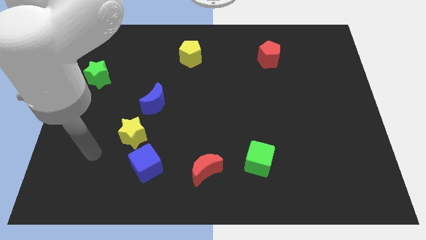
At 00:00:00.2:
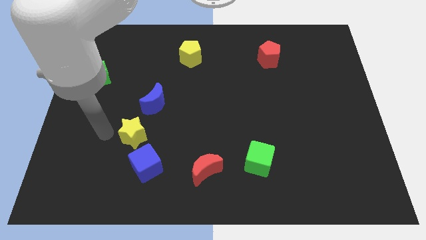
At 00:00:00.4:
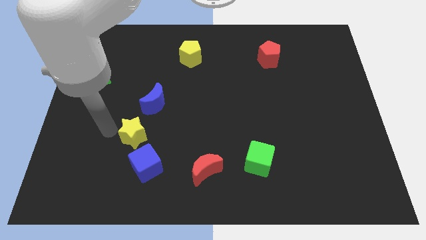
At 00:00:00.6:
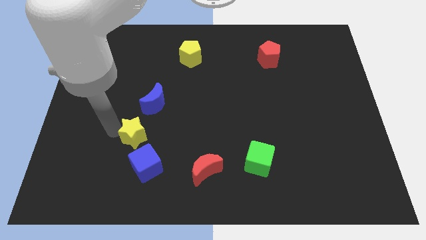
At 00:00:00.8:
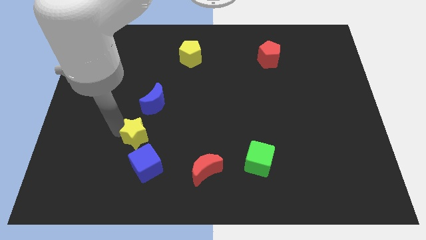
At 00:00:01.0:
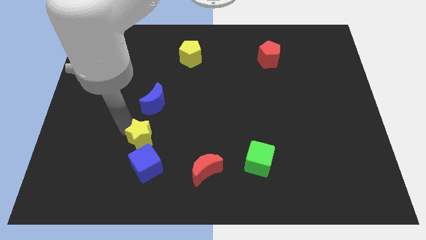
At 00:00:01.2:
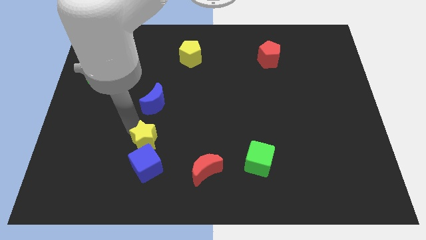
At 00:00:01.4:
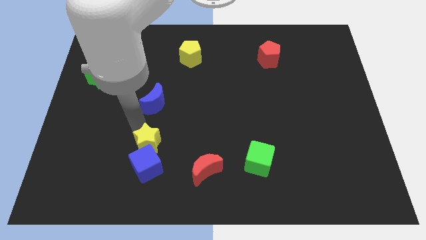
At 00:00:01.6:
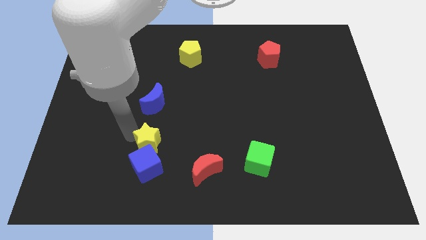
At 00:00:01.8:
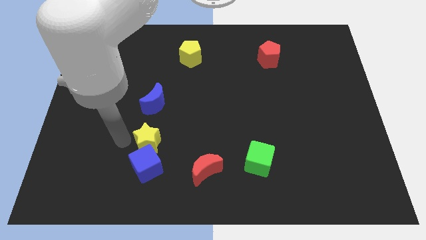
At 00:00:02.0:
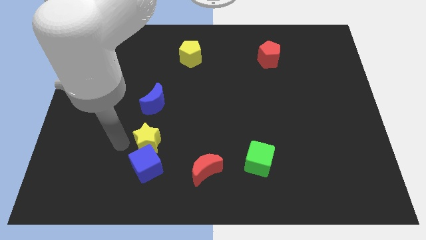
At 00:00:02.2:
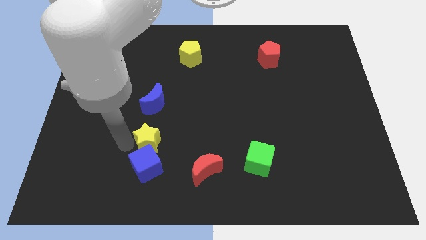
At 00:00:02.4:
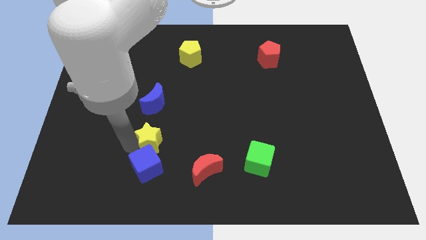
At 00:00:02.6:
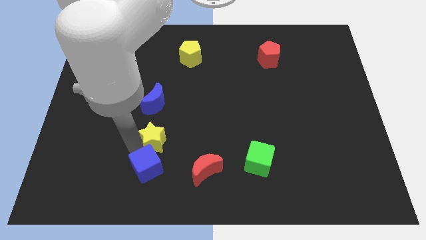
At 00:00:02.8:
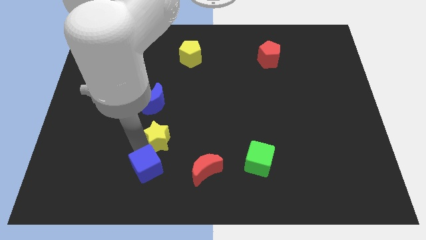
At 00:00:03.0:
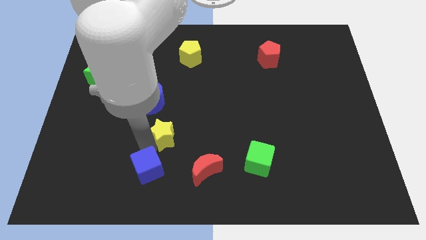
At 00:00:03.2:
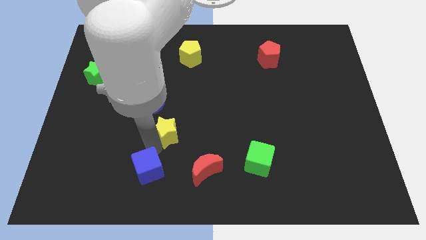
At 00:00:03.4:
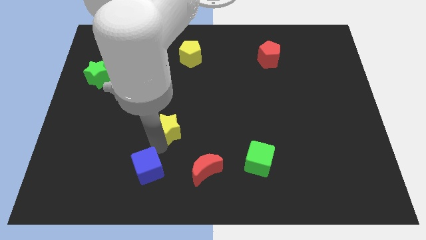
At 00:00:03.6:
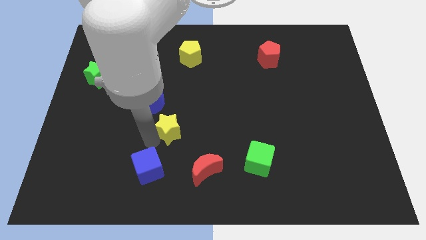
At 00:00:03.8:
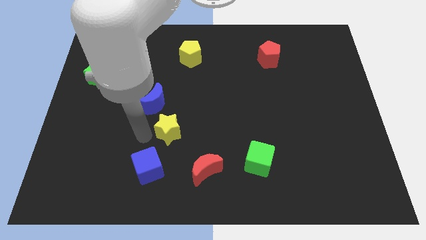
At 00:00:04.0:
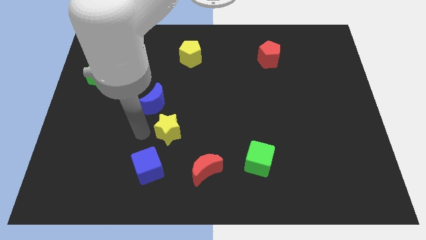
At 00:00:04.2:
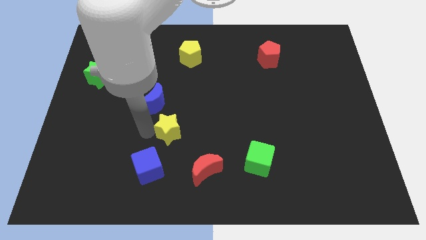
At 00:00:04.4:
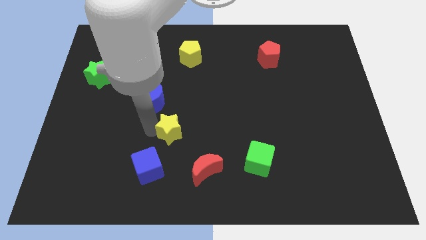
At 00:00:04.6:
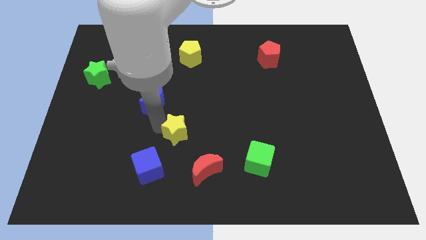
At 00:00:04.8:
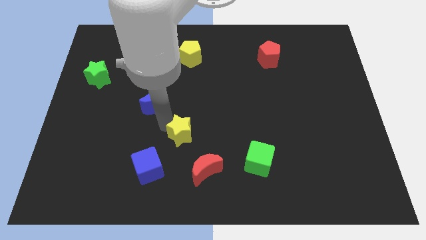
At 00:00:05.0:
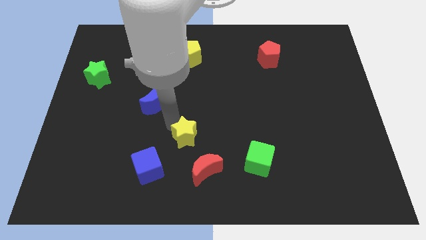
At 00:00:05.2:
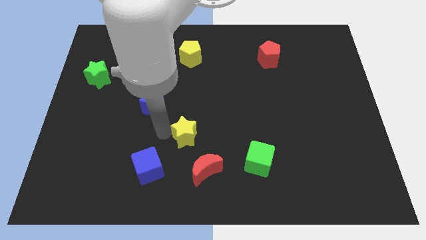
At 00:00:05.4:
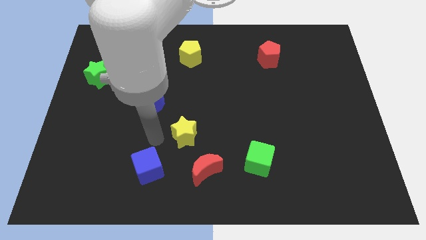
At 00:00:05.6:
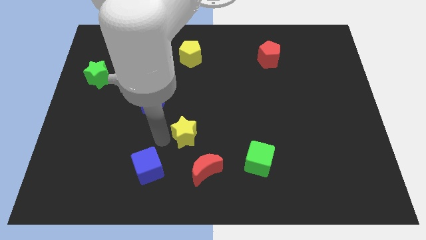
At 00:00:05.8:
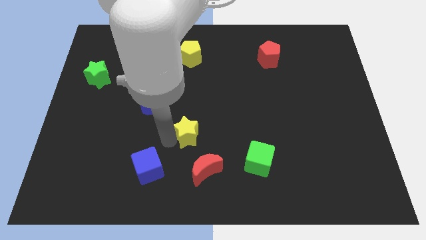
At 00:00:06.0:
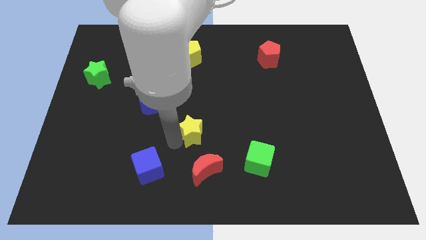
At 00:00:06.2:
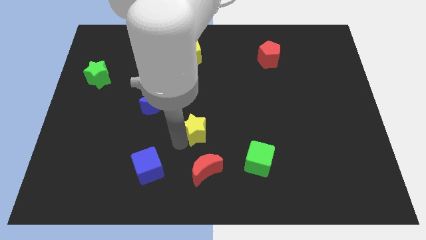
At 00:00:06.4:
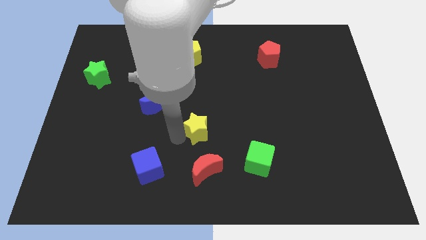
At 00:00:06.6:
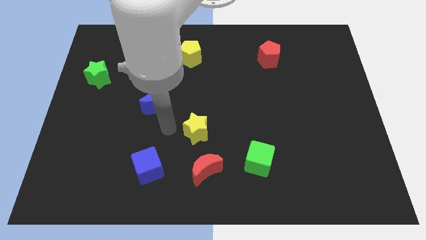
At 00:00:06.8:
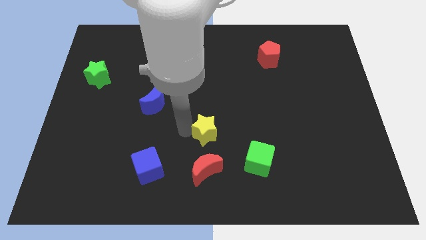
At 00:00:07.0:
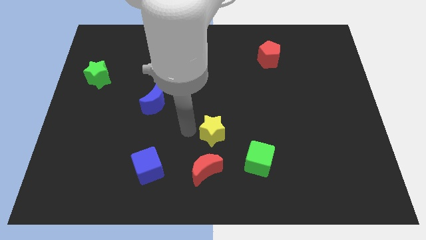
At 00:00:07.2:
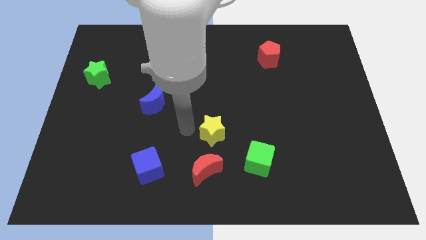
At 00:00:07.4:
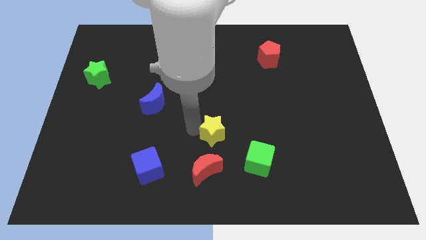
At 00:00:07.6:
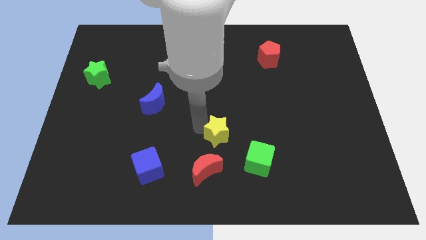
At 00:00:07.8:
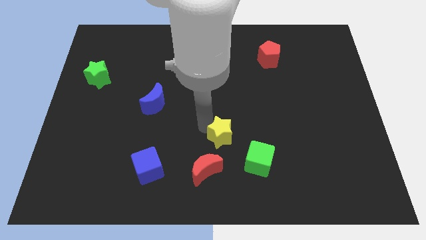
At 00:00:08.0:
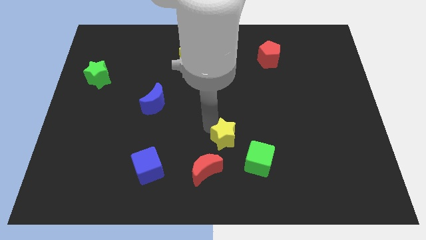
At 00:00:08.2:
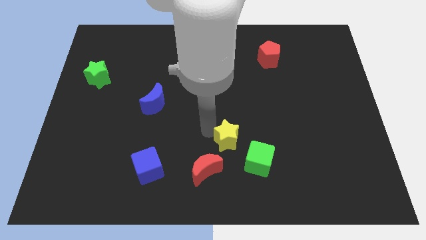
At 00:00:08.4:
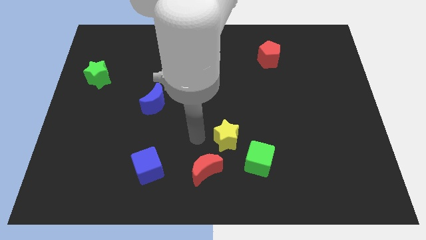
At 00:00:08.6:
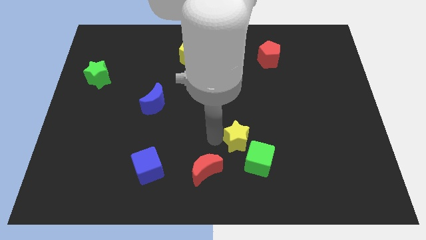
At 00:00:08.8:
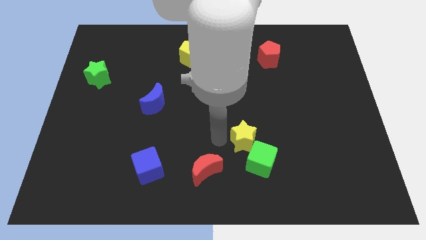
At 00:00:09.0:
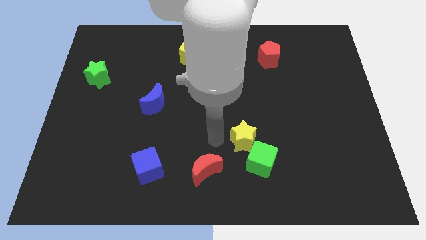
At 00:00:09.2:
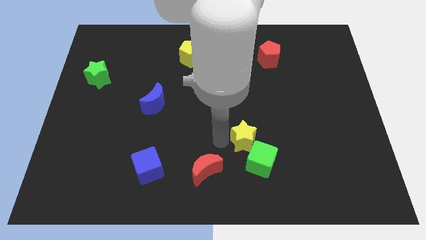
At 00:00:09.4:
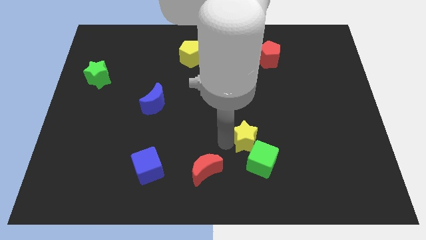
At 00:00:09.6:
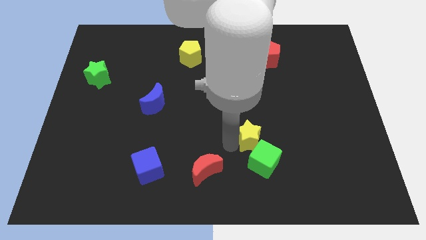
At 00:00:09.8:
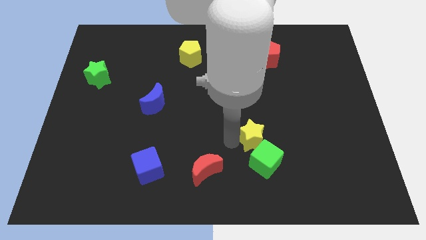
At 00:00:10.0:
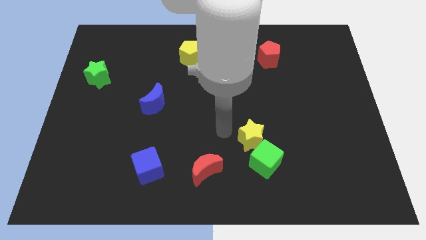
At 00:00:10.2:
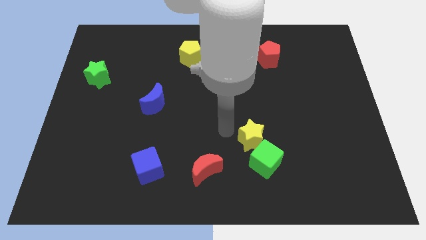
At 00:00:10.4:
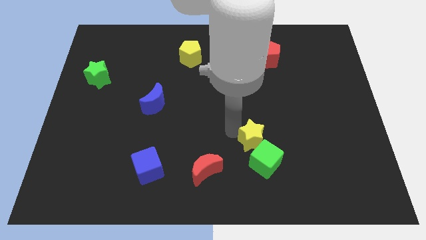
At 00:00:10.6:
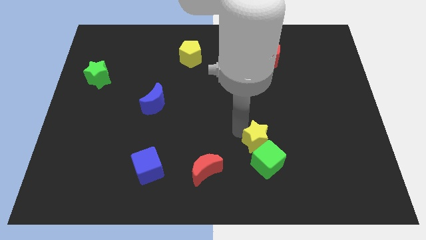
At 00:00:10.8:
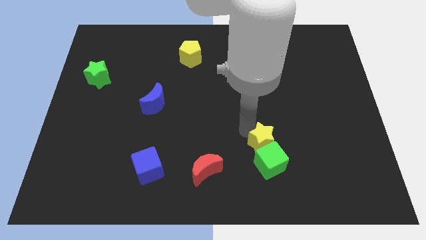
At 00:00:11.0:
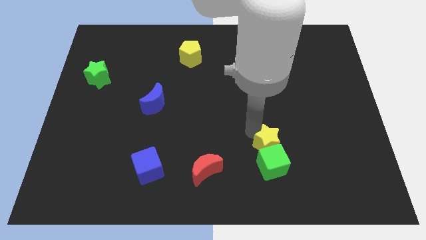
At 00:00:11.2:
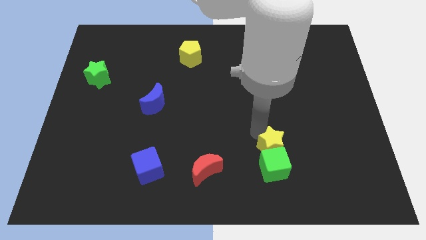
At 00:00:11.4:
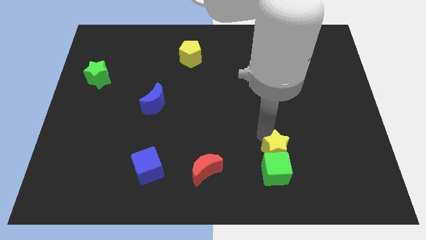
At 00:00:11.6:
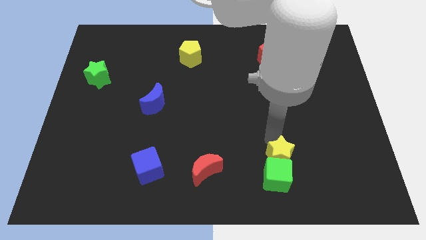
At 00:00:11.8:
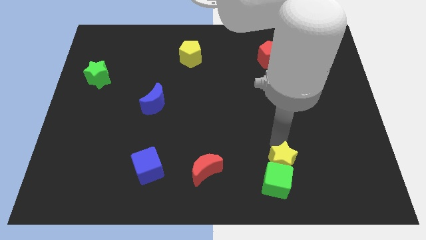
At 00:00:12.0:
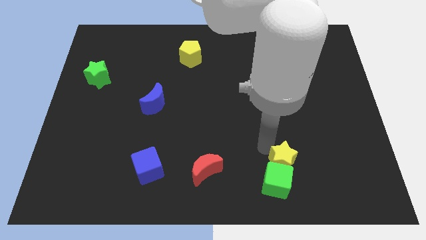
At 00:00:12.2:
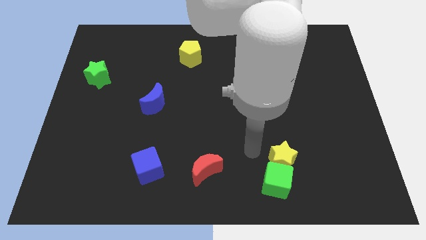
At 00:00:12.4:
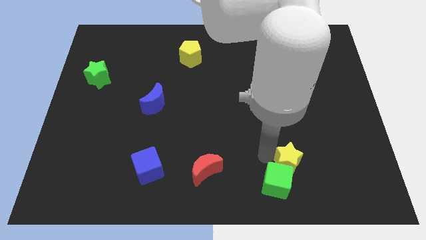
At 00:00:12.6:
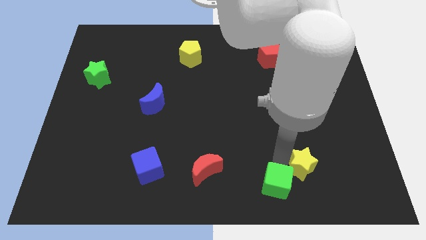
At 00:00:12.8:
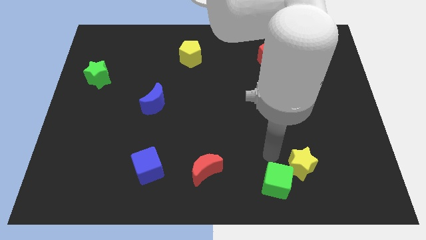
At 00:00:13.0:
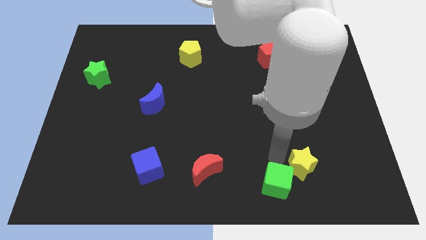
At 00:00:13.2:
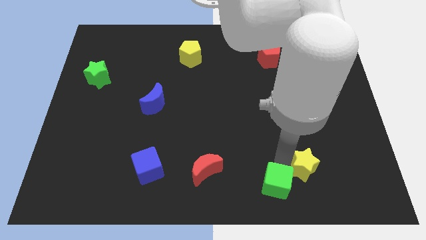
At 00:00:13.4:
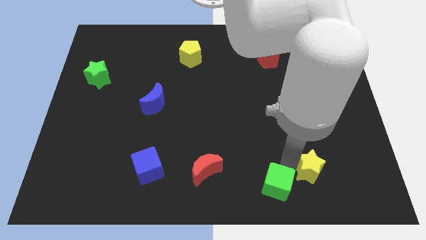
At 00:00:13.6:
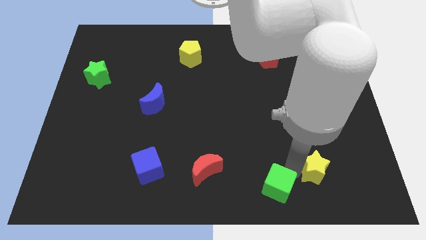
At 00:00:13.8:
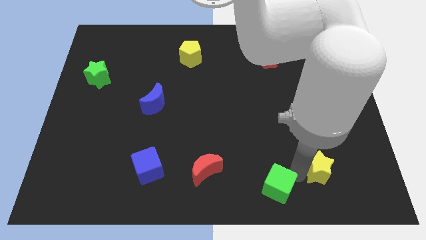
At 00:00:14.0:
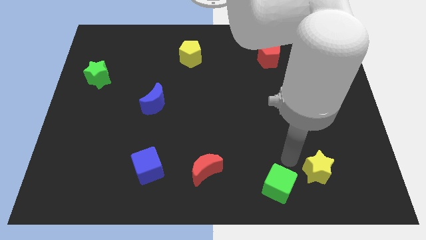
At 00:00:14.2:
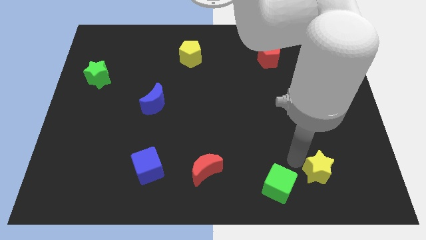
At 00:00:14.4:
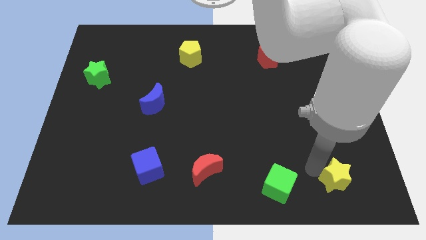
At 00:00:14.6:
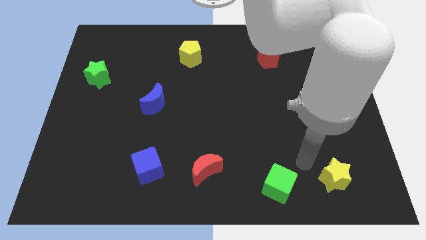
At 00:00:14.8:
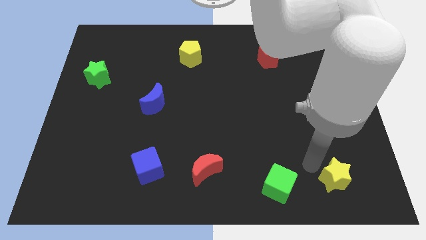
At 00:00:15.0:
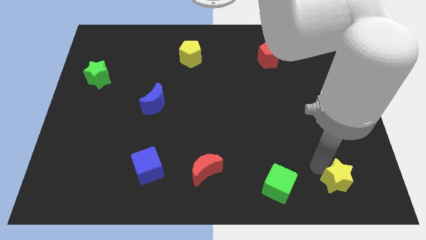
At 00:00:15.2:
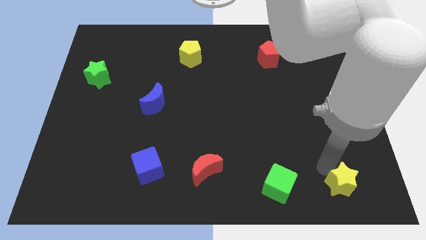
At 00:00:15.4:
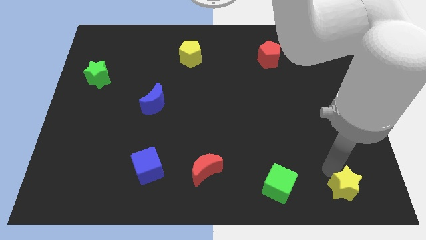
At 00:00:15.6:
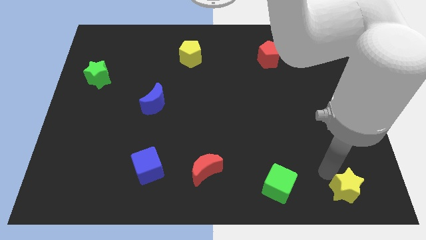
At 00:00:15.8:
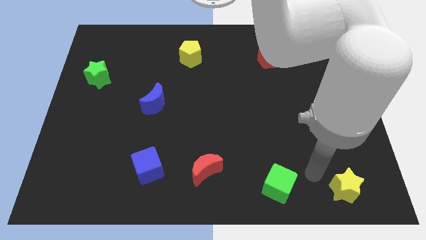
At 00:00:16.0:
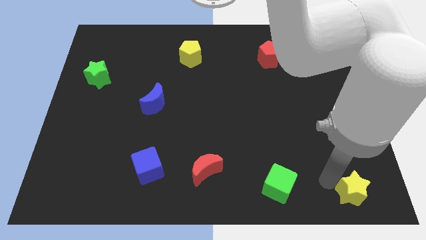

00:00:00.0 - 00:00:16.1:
push the yellow star to the lower right corner
